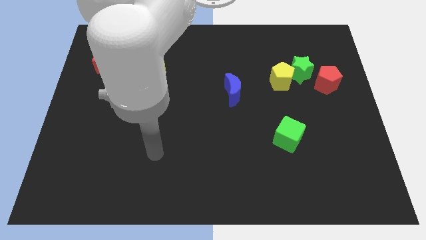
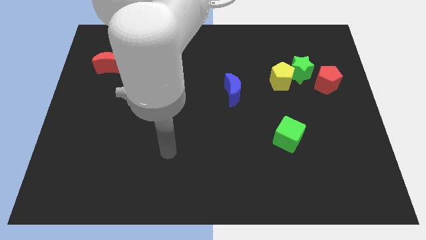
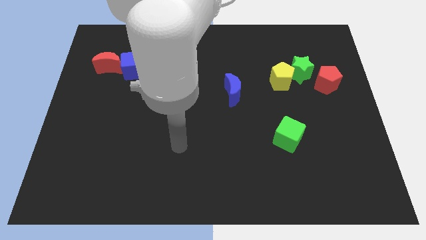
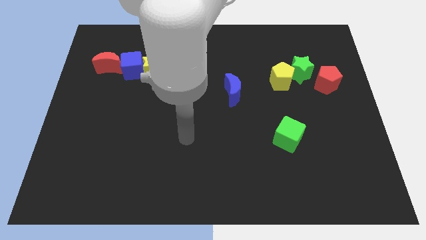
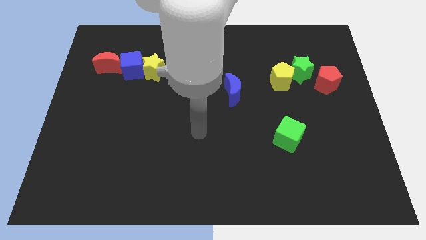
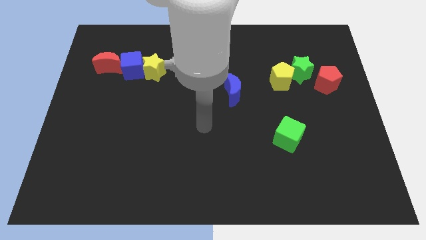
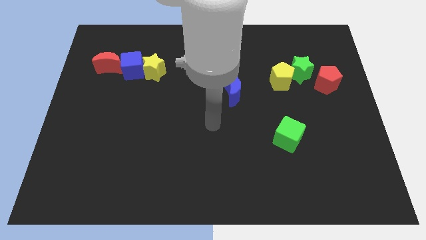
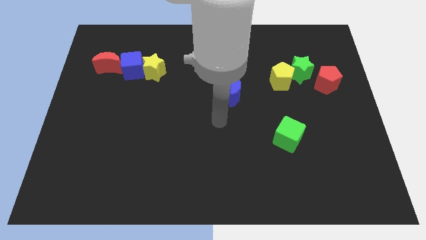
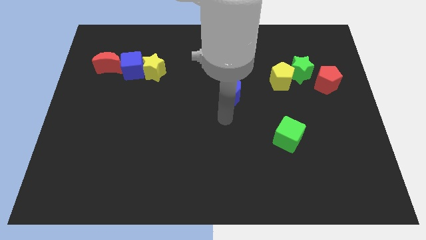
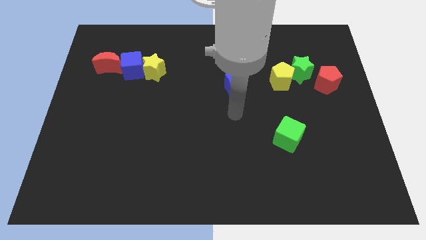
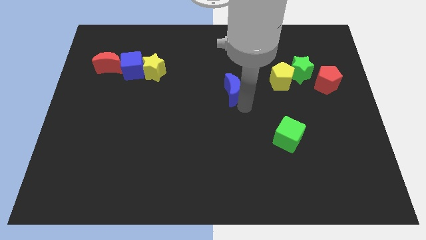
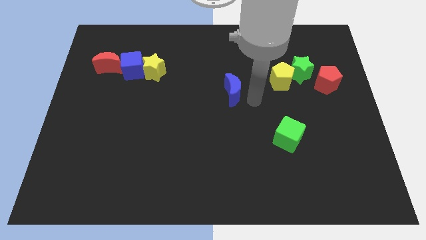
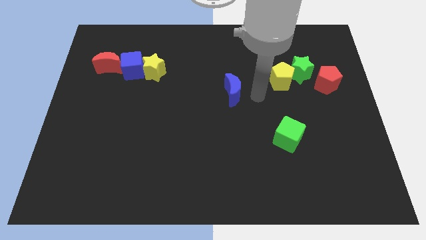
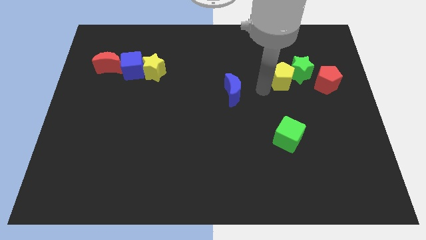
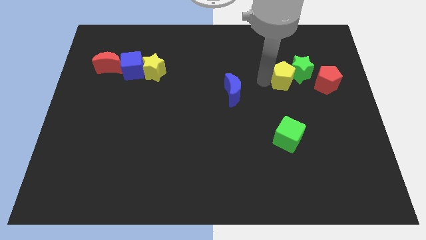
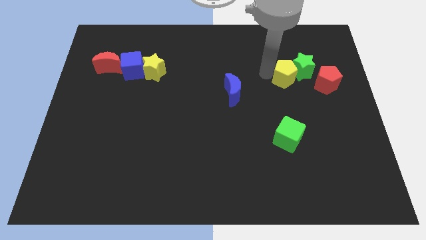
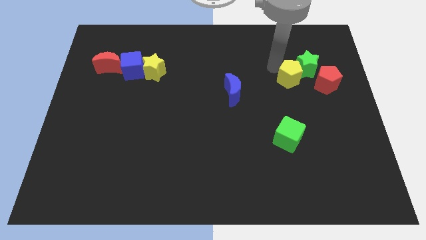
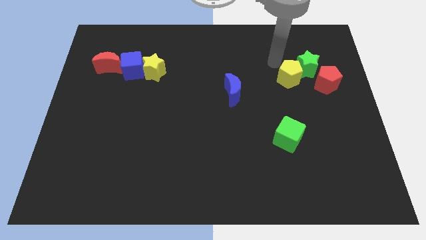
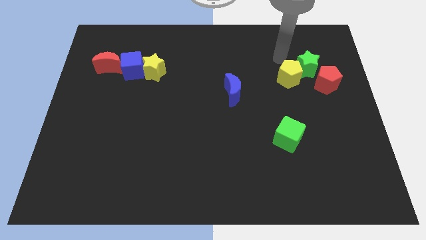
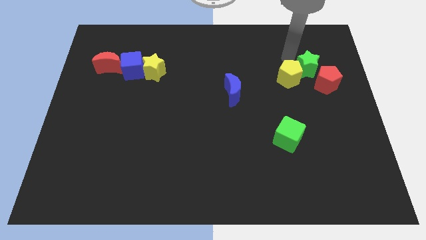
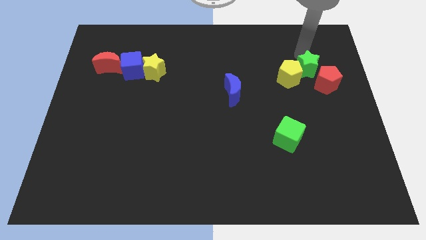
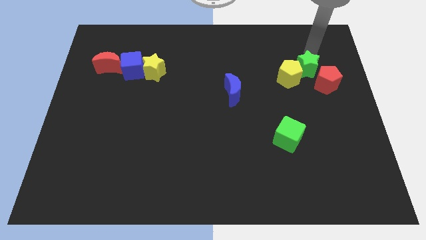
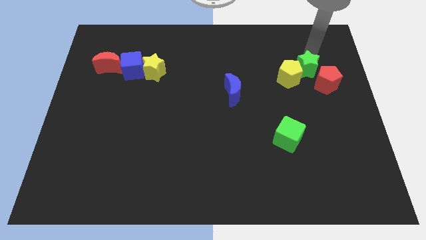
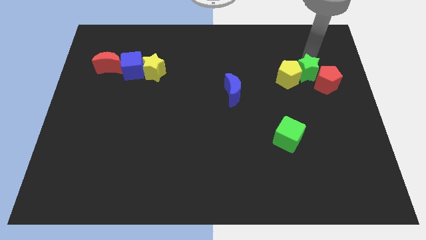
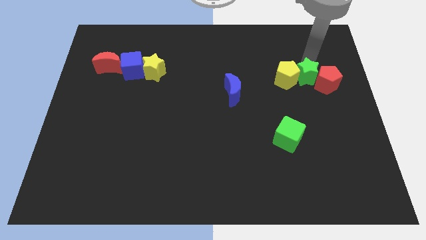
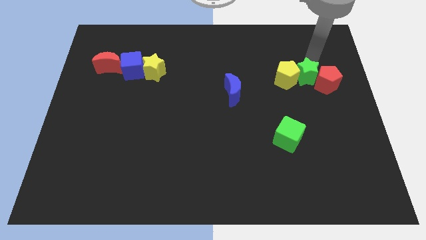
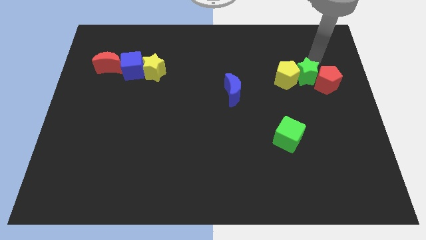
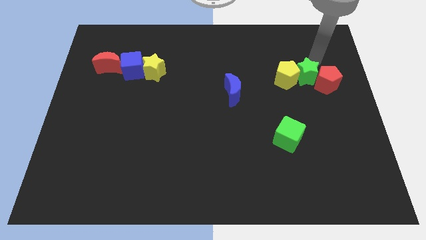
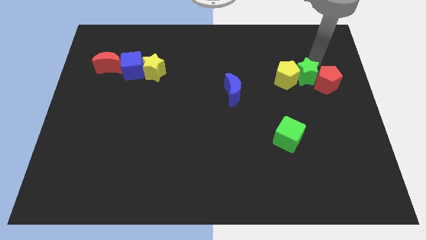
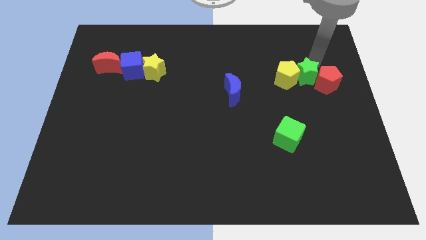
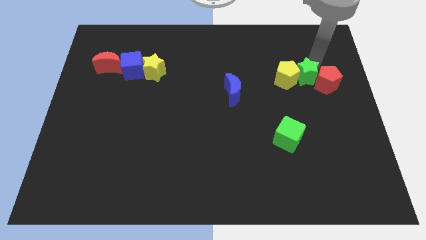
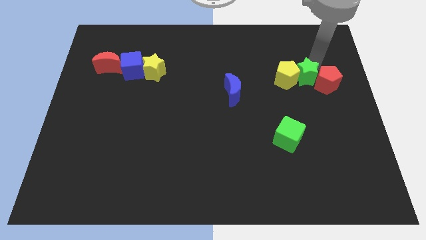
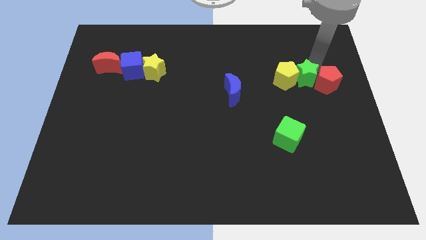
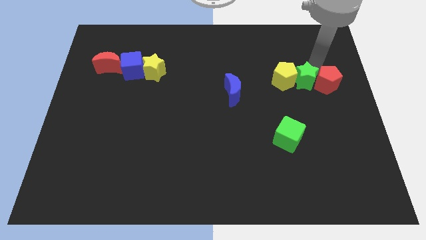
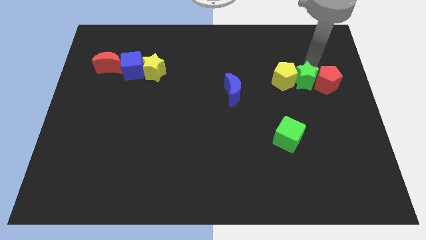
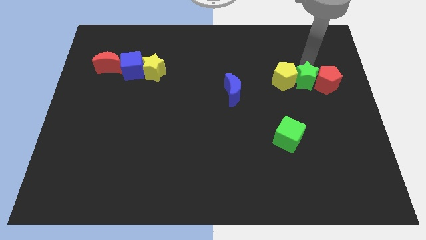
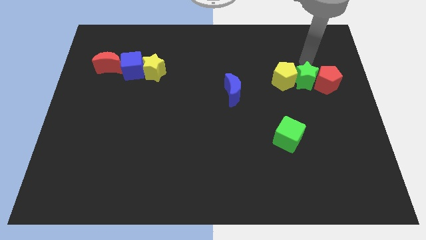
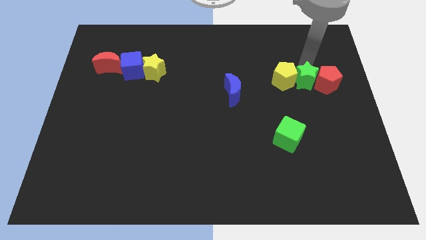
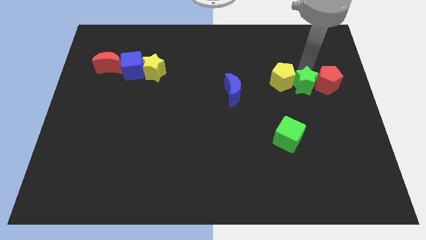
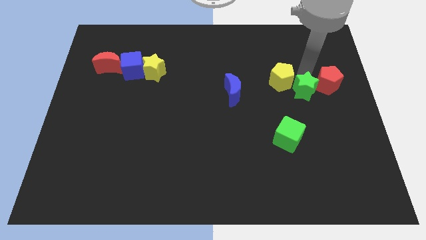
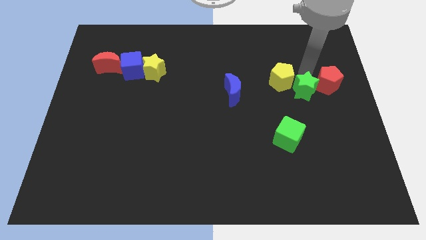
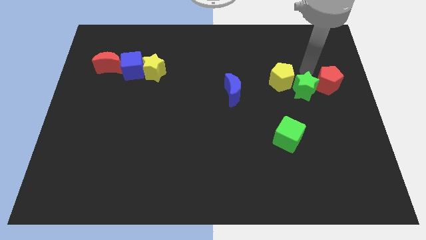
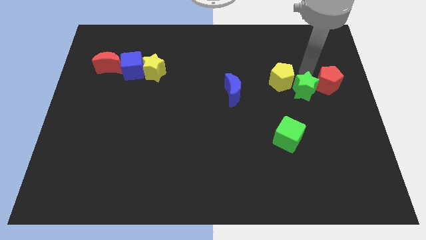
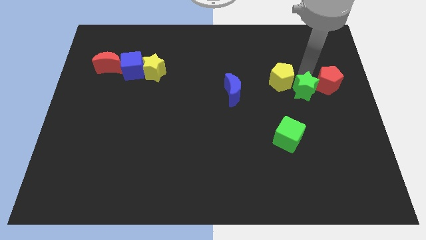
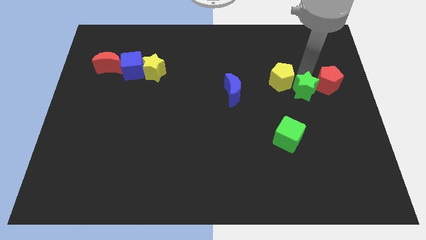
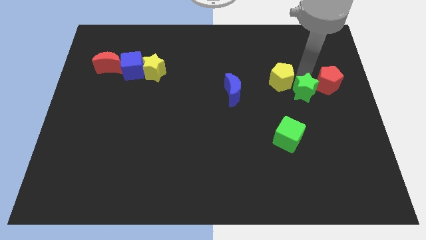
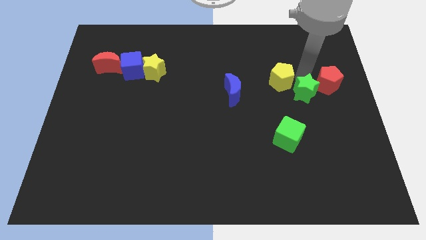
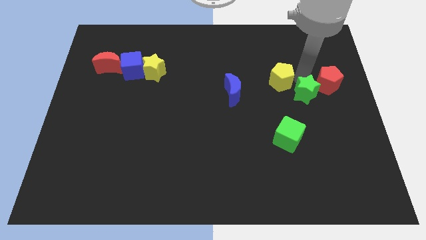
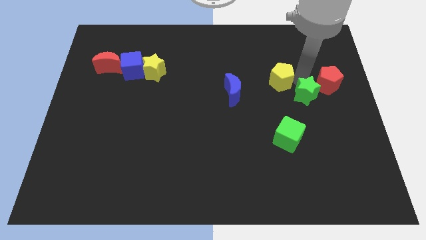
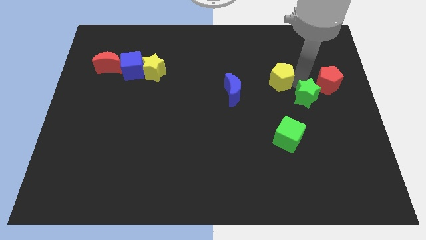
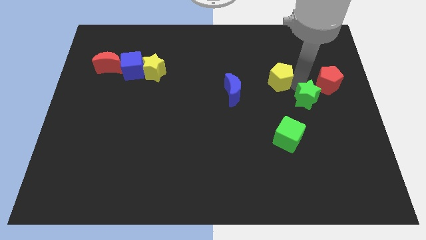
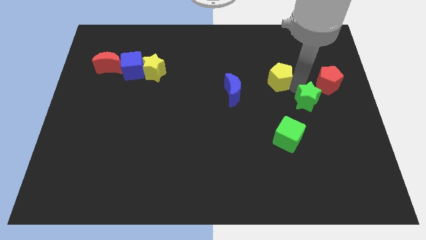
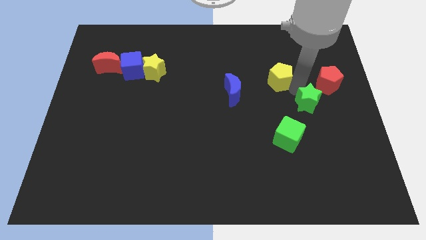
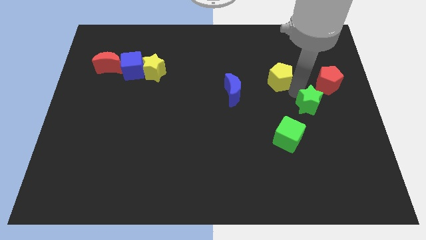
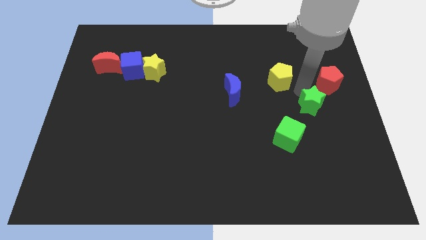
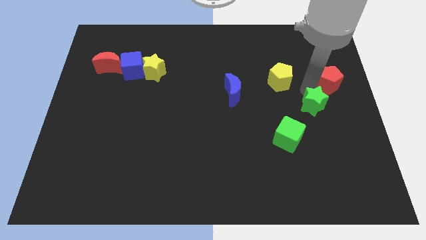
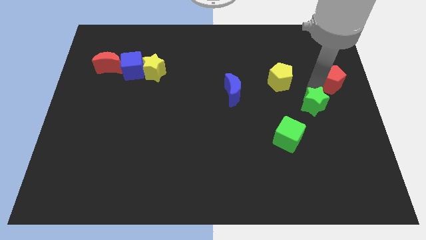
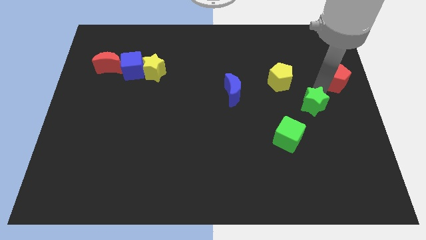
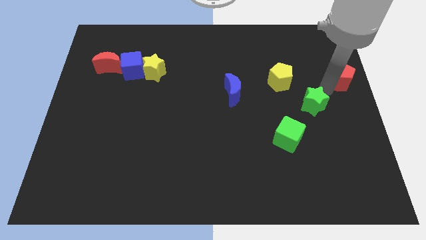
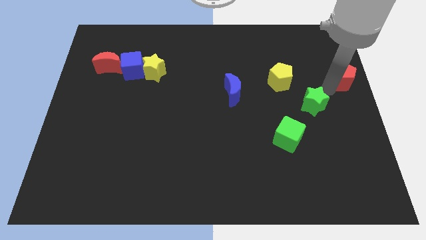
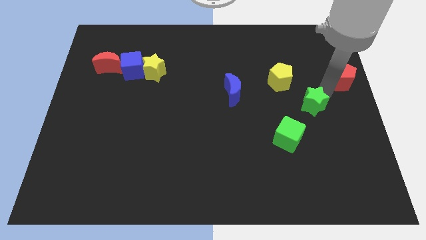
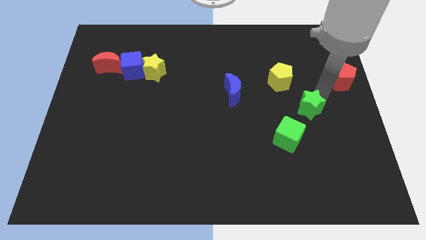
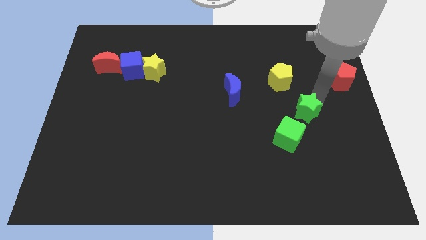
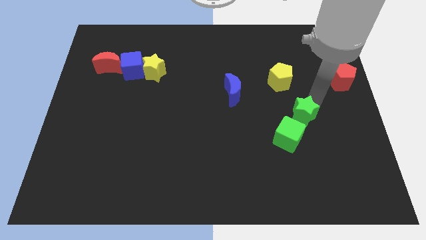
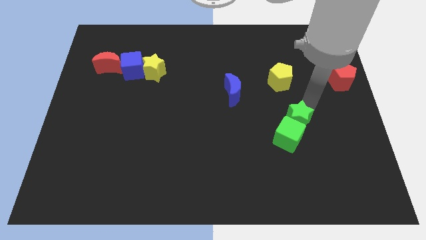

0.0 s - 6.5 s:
put the green star close to the green cube
